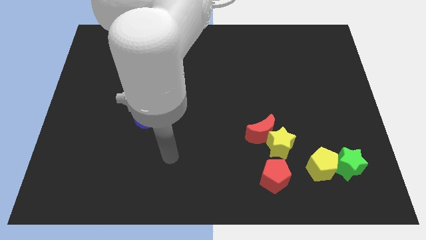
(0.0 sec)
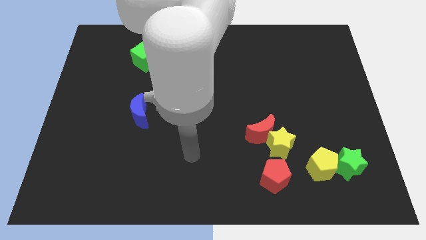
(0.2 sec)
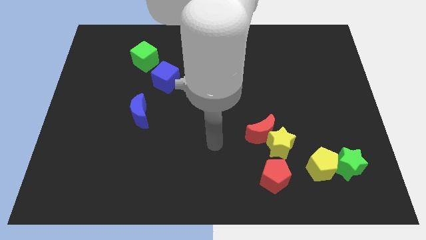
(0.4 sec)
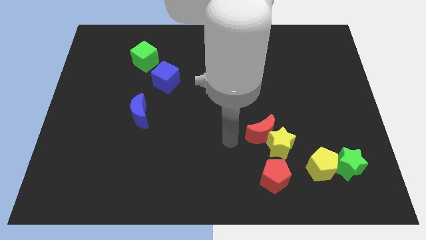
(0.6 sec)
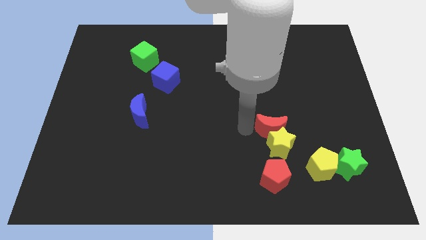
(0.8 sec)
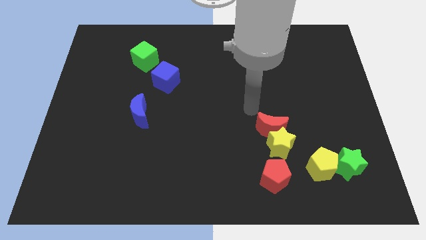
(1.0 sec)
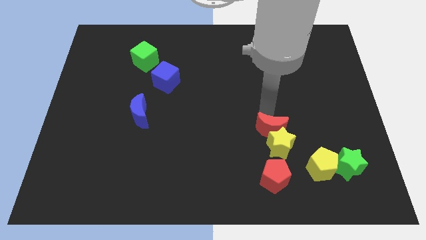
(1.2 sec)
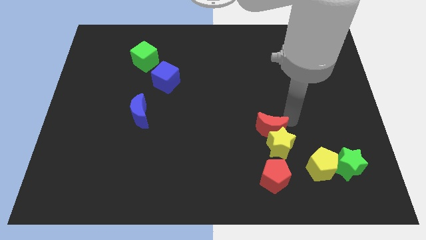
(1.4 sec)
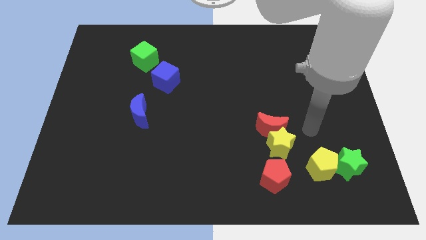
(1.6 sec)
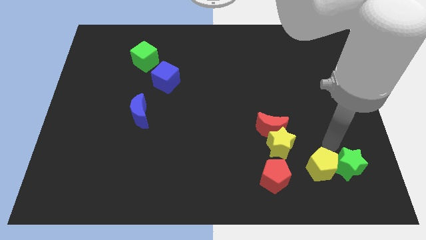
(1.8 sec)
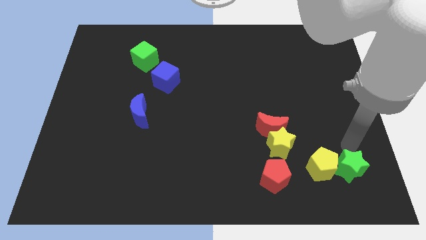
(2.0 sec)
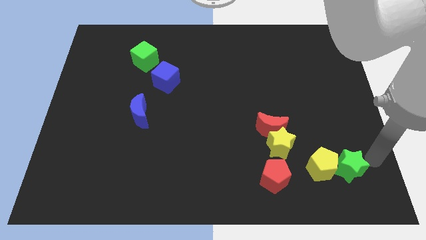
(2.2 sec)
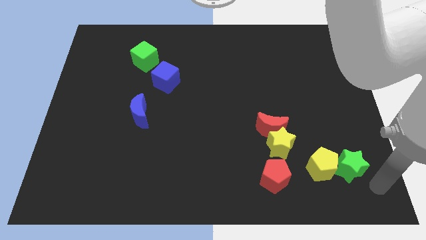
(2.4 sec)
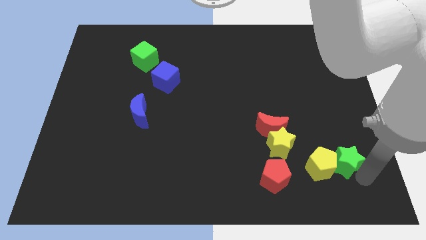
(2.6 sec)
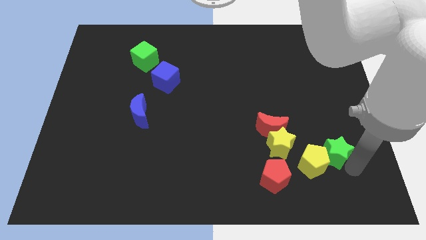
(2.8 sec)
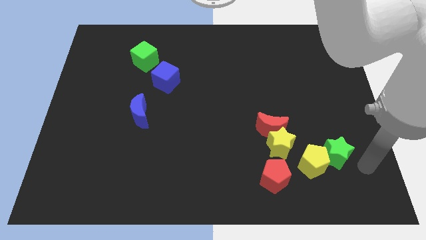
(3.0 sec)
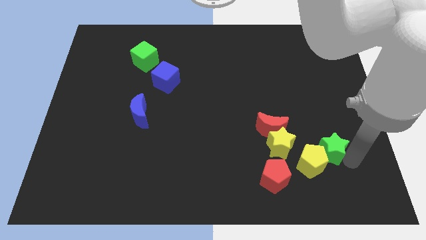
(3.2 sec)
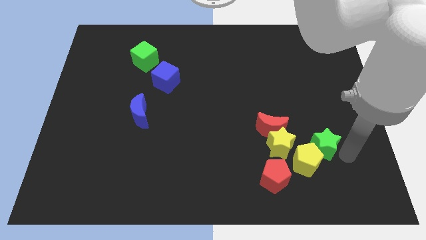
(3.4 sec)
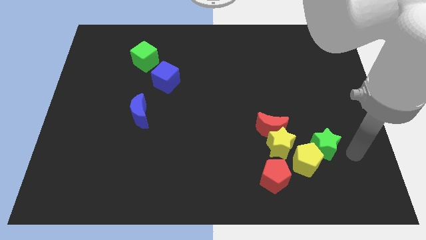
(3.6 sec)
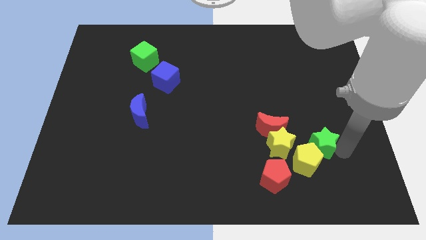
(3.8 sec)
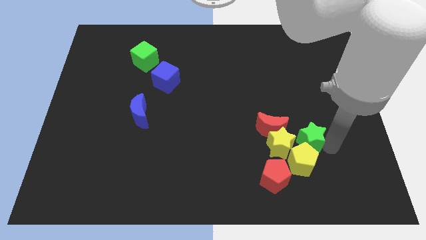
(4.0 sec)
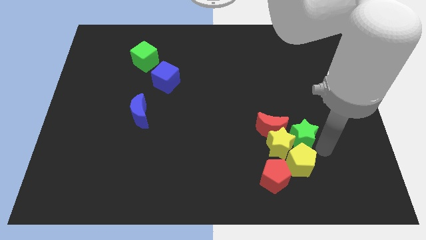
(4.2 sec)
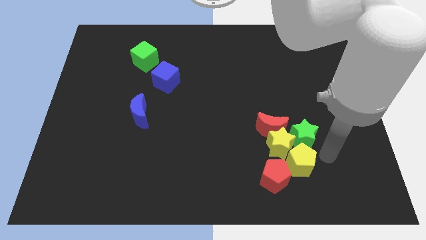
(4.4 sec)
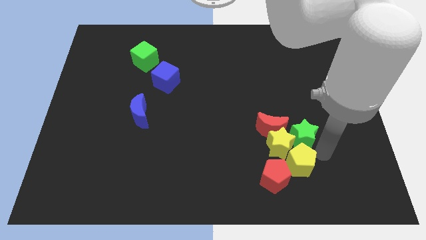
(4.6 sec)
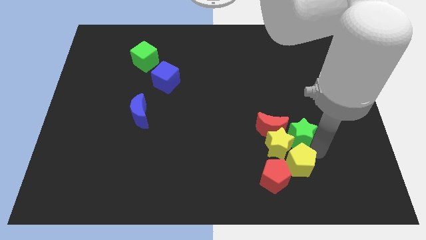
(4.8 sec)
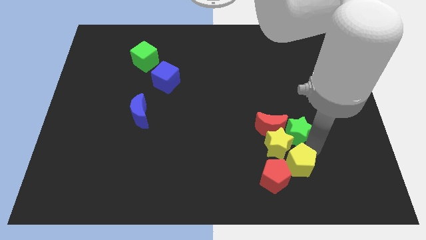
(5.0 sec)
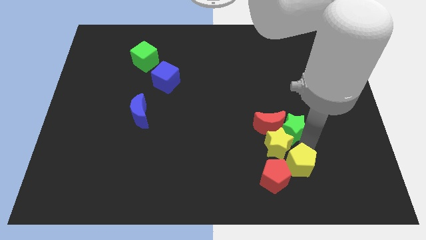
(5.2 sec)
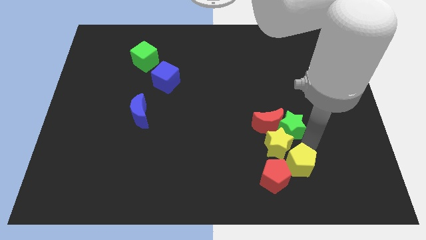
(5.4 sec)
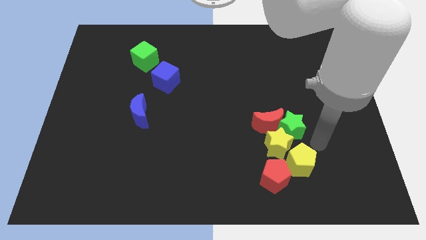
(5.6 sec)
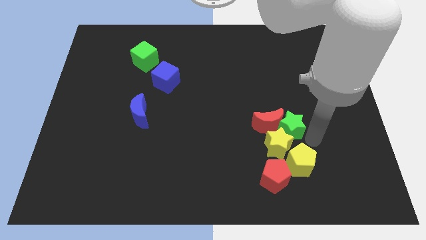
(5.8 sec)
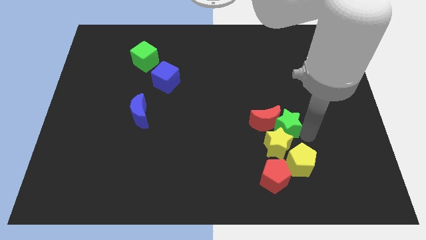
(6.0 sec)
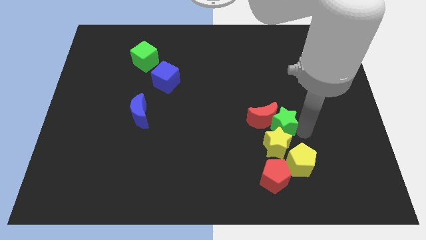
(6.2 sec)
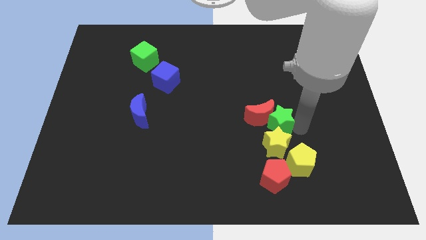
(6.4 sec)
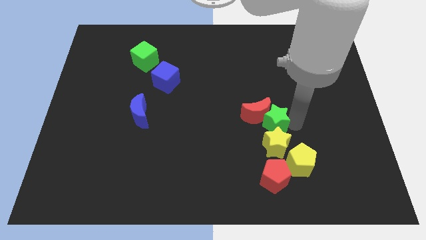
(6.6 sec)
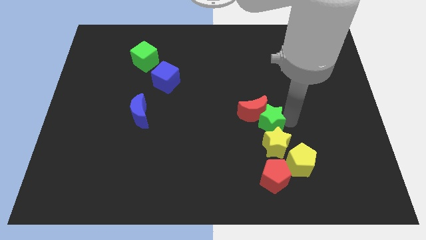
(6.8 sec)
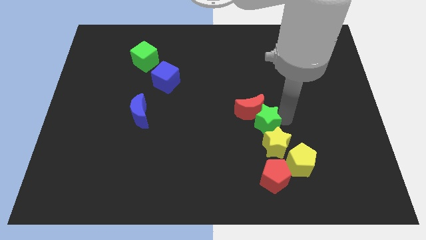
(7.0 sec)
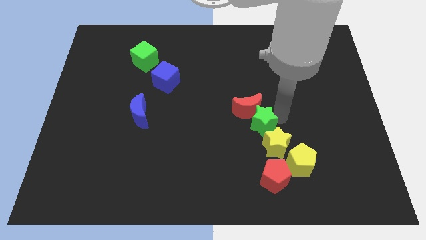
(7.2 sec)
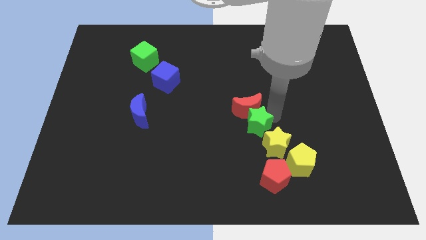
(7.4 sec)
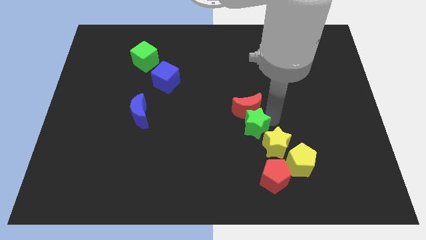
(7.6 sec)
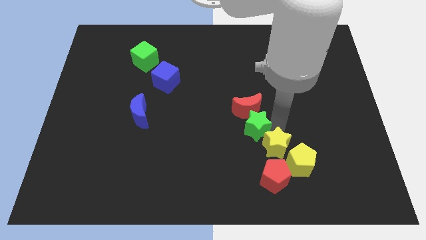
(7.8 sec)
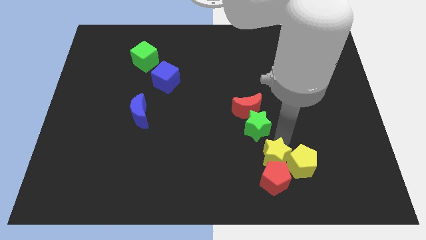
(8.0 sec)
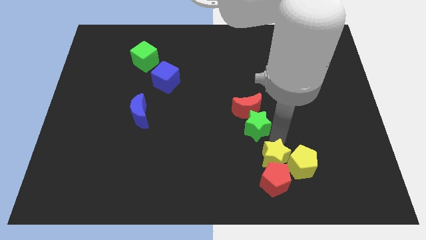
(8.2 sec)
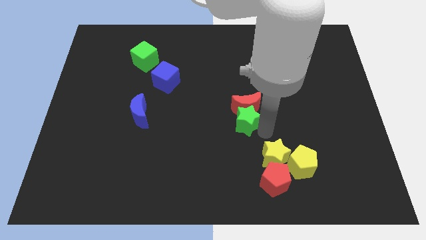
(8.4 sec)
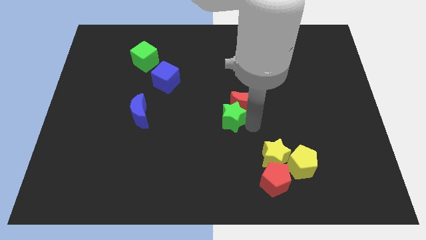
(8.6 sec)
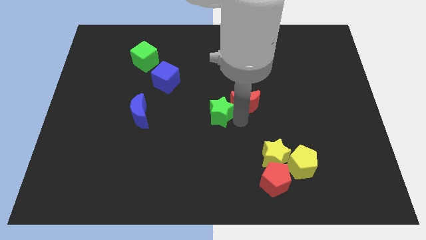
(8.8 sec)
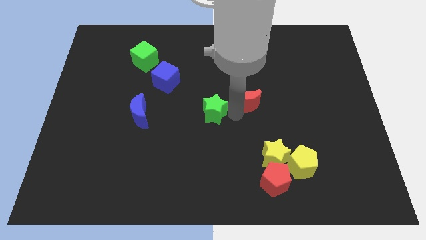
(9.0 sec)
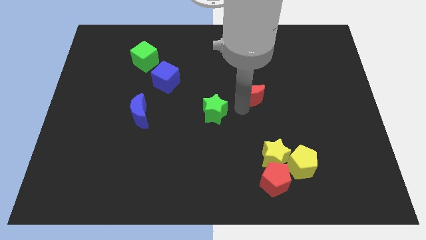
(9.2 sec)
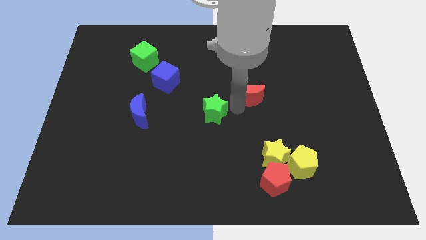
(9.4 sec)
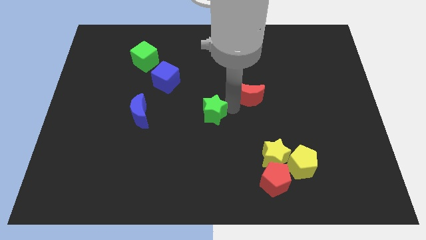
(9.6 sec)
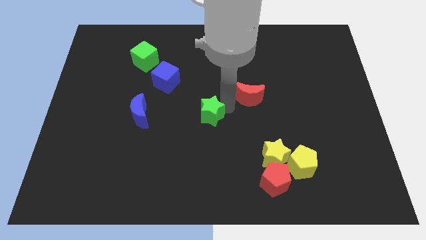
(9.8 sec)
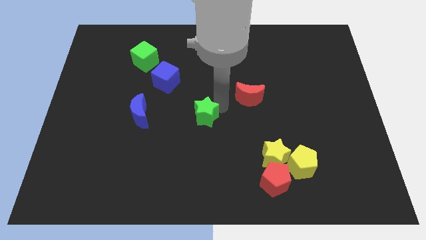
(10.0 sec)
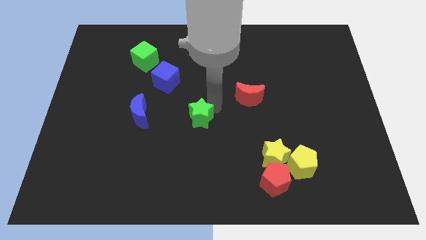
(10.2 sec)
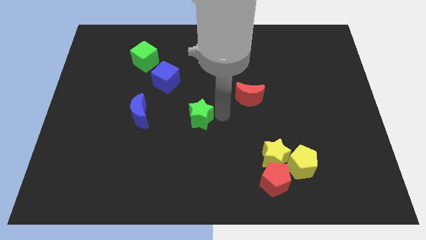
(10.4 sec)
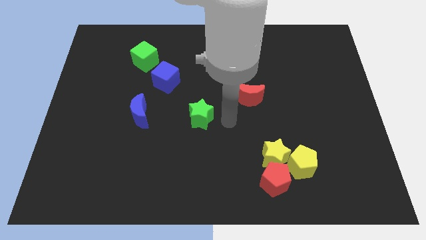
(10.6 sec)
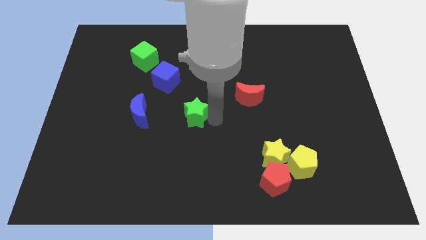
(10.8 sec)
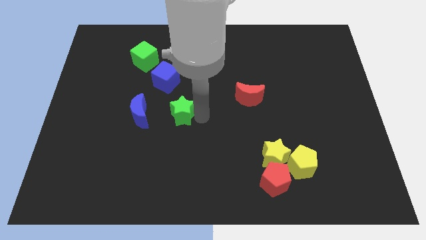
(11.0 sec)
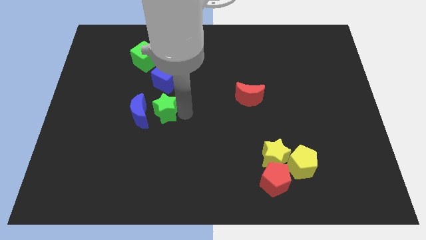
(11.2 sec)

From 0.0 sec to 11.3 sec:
put the green star next to the blue moon

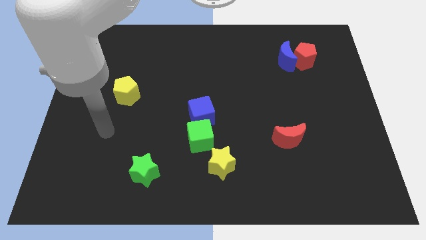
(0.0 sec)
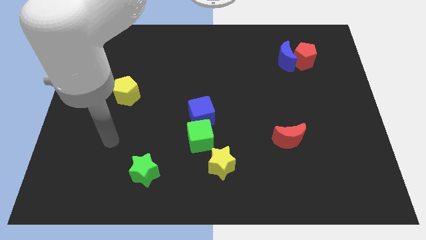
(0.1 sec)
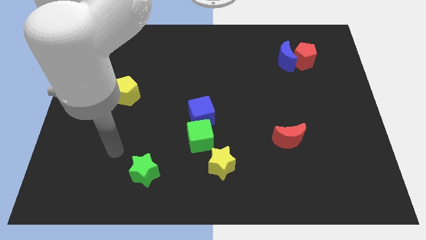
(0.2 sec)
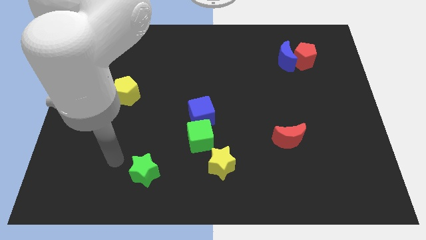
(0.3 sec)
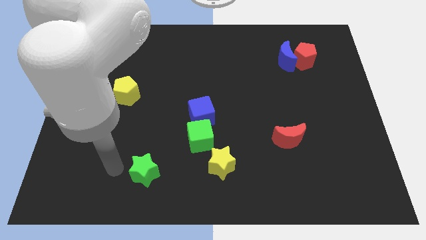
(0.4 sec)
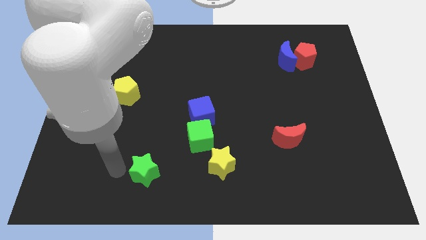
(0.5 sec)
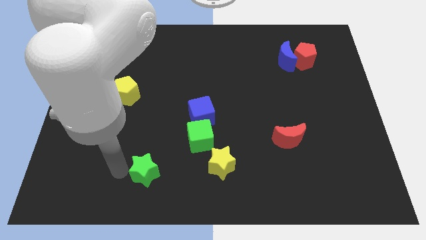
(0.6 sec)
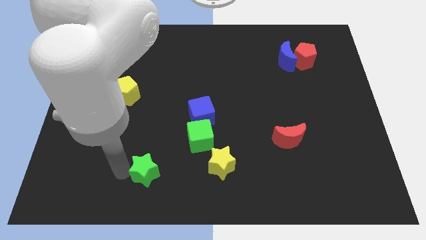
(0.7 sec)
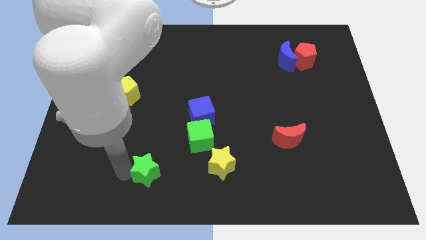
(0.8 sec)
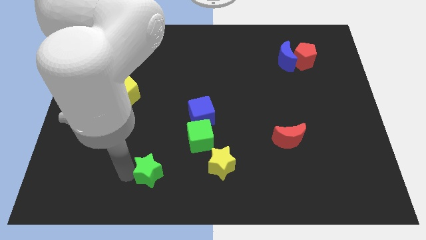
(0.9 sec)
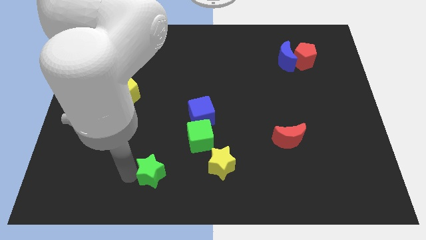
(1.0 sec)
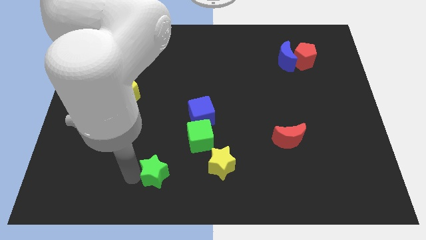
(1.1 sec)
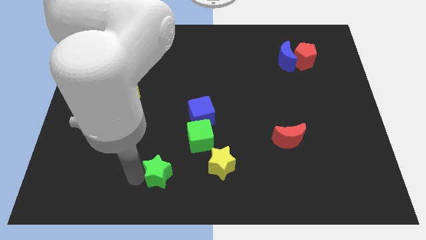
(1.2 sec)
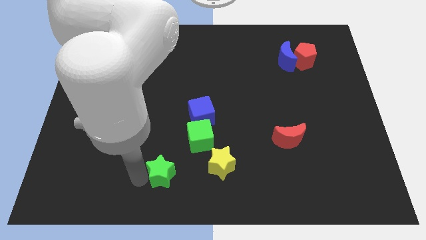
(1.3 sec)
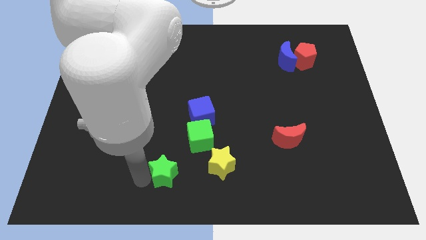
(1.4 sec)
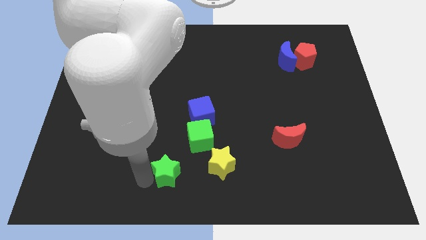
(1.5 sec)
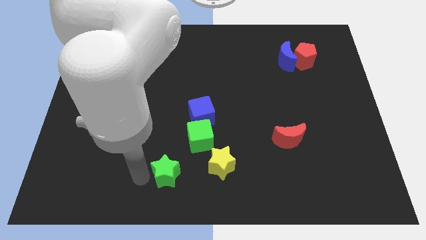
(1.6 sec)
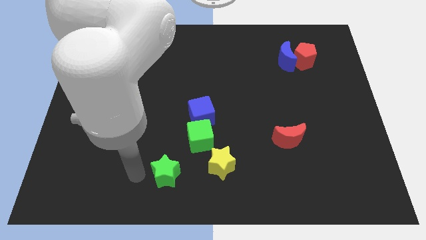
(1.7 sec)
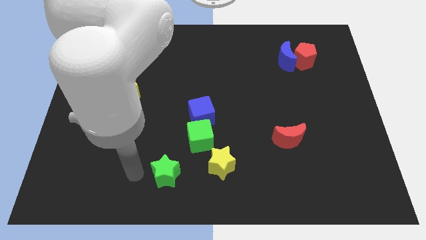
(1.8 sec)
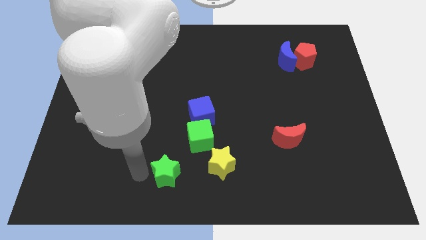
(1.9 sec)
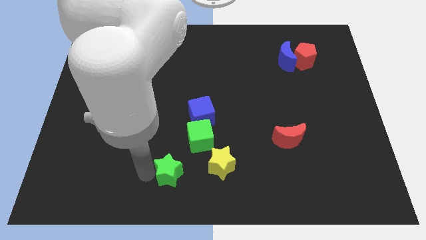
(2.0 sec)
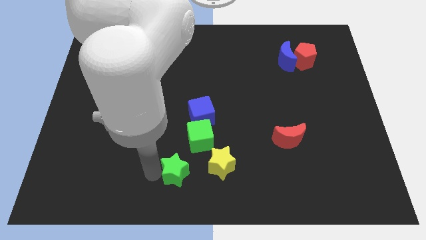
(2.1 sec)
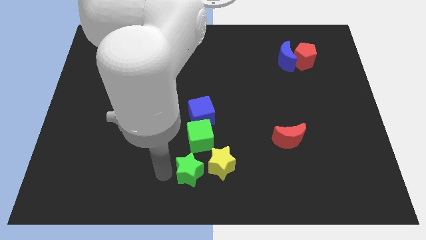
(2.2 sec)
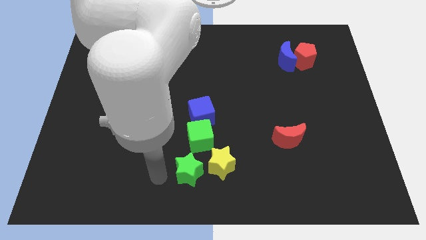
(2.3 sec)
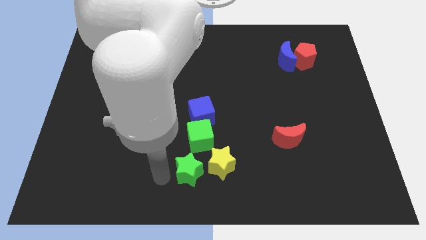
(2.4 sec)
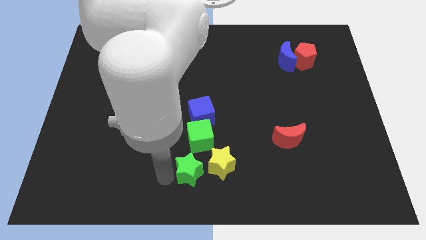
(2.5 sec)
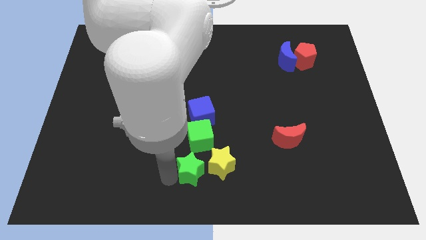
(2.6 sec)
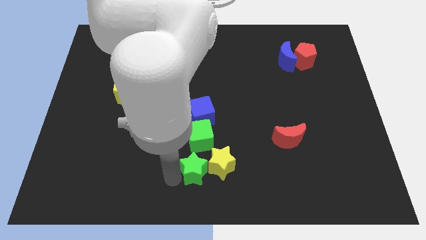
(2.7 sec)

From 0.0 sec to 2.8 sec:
put the green star towards the yellow star
